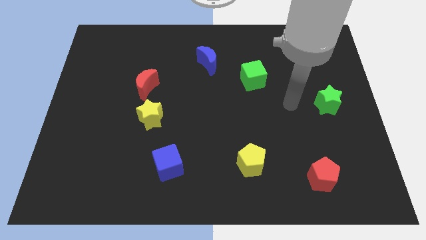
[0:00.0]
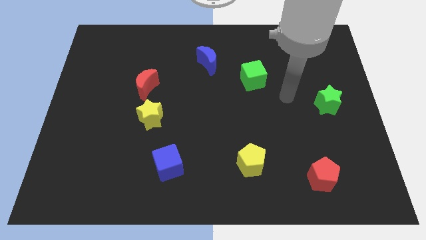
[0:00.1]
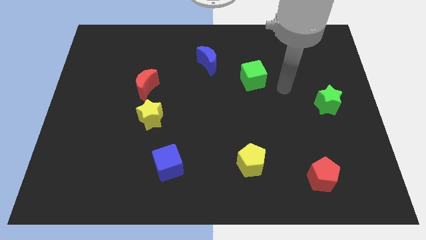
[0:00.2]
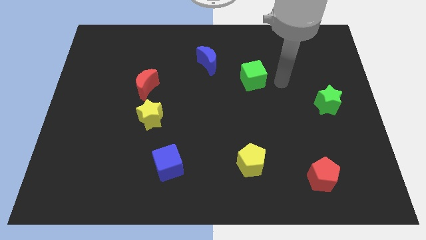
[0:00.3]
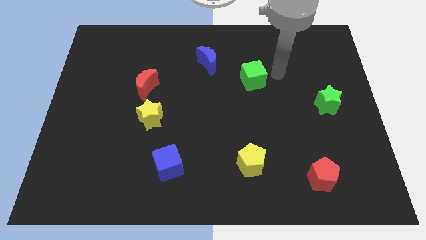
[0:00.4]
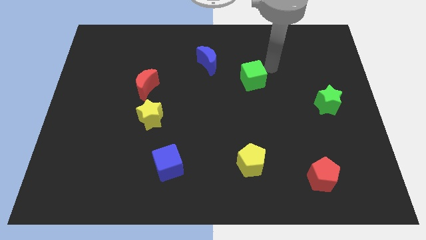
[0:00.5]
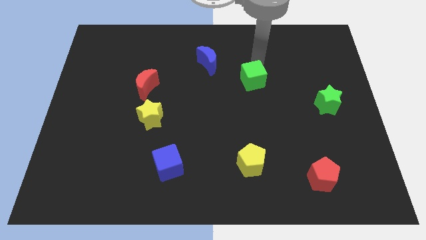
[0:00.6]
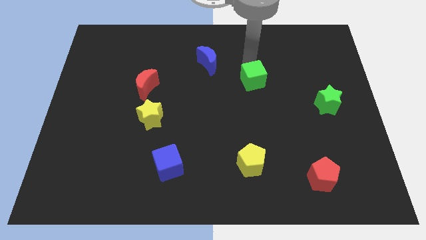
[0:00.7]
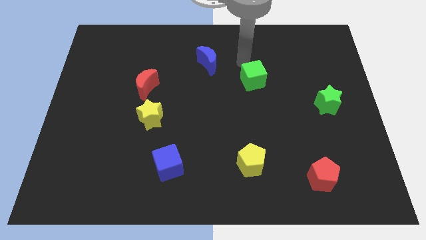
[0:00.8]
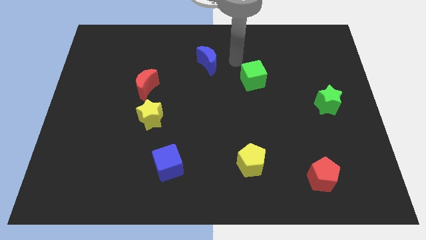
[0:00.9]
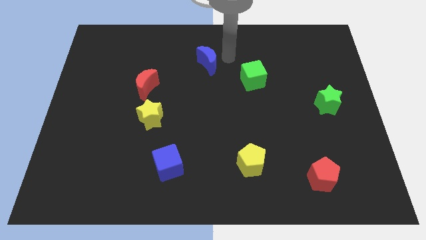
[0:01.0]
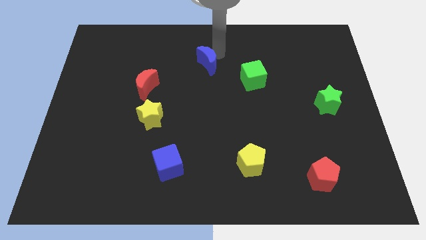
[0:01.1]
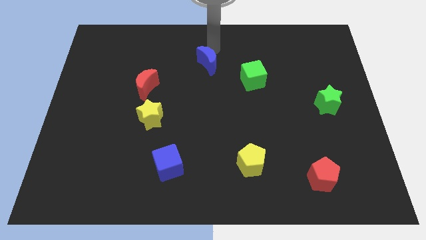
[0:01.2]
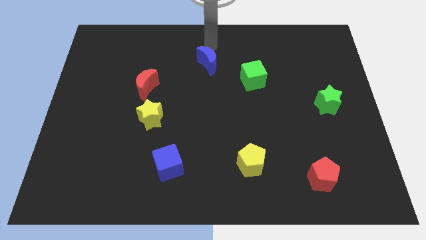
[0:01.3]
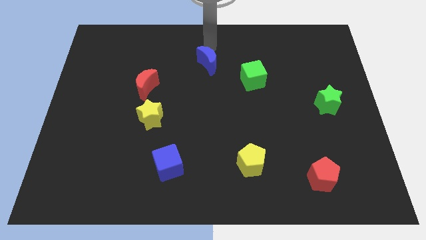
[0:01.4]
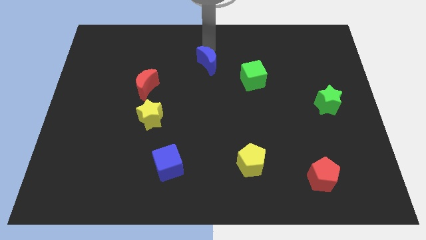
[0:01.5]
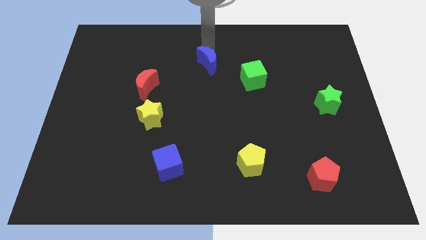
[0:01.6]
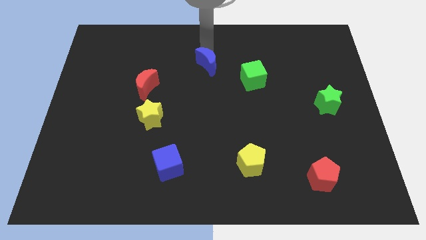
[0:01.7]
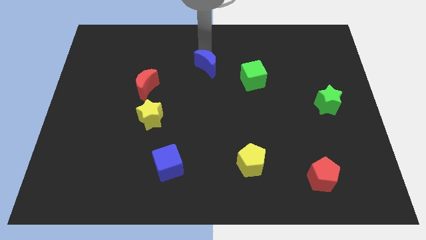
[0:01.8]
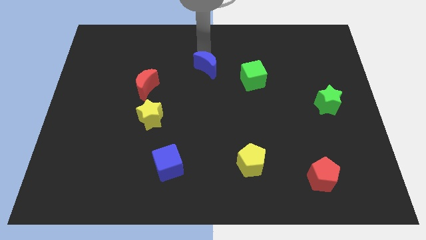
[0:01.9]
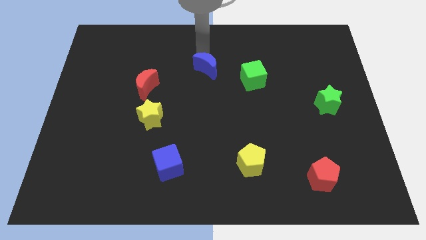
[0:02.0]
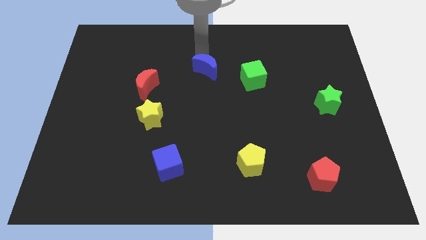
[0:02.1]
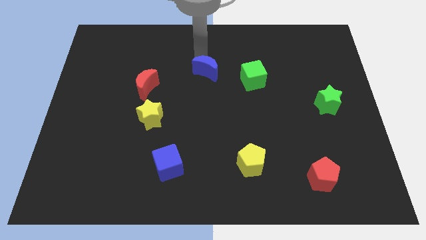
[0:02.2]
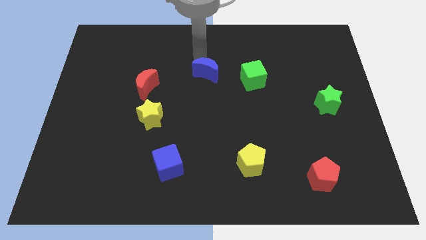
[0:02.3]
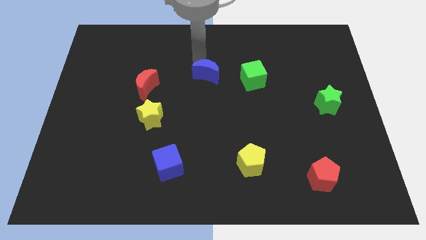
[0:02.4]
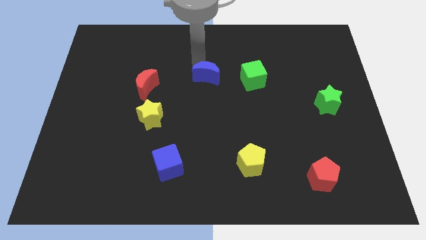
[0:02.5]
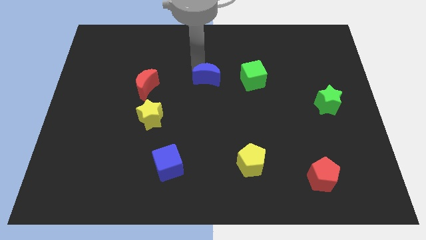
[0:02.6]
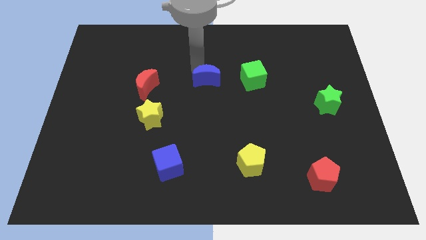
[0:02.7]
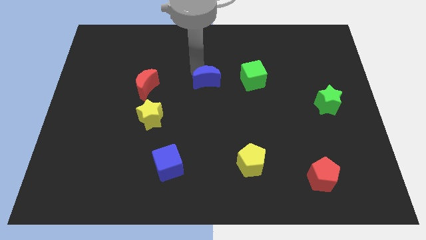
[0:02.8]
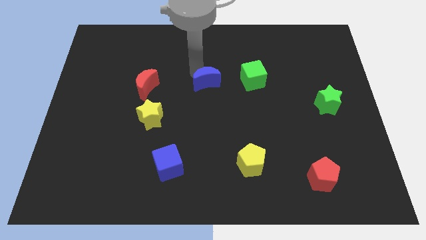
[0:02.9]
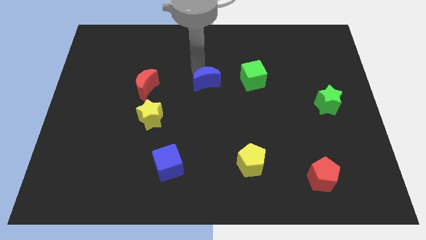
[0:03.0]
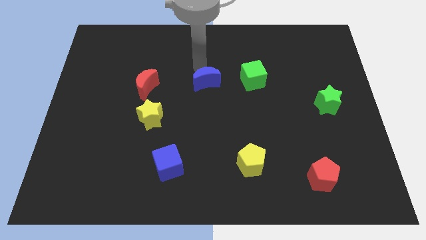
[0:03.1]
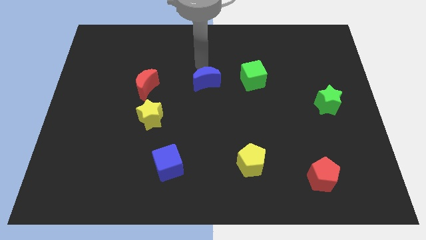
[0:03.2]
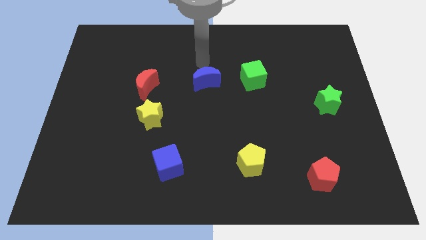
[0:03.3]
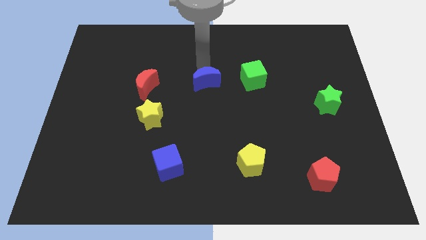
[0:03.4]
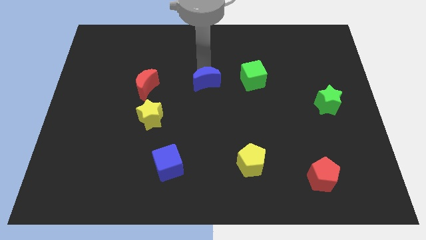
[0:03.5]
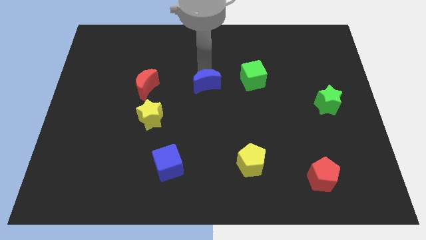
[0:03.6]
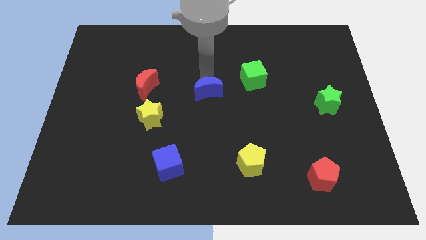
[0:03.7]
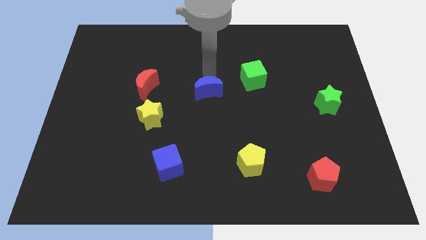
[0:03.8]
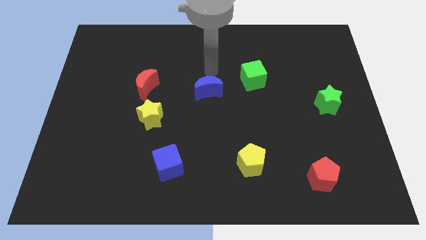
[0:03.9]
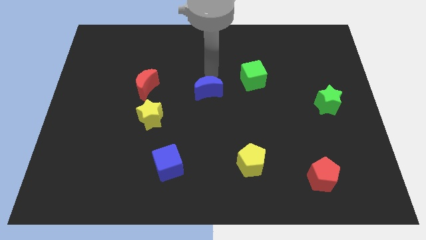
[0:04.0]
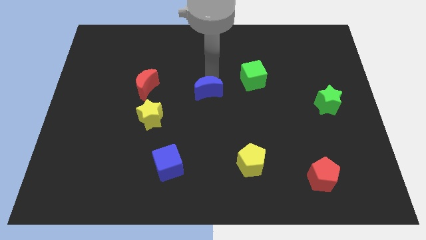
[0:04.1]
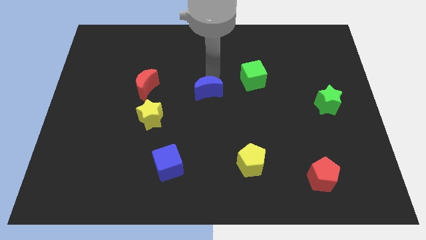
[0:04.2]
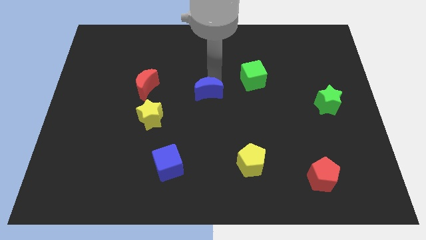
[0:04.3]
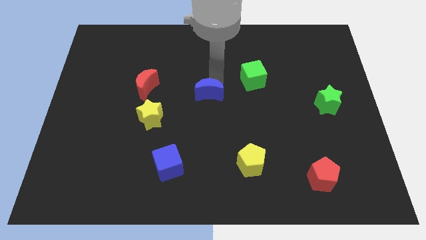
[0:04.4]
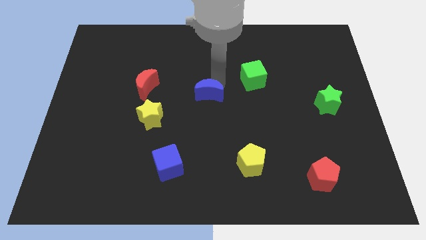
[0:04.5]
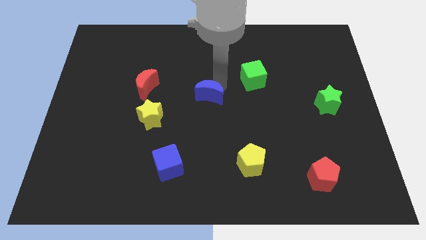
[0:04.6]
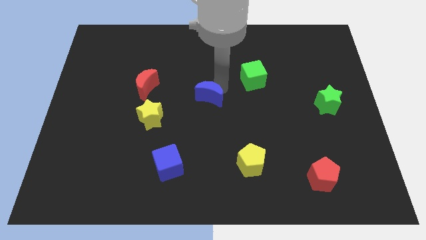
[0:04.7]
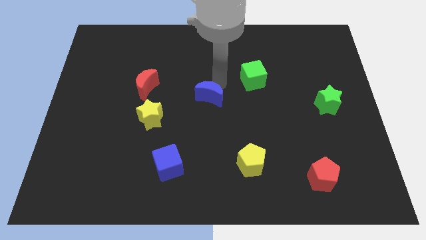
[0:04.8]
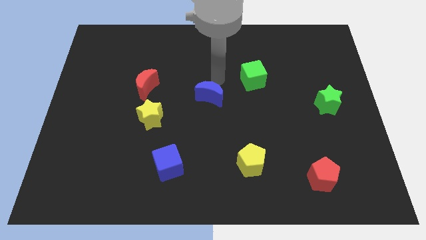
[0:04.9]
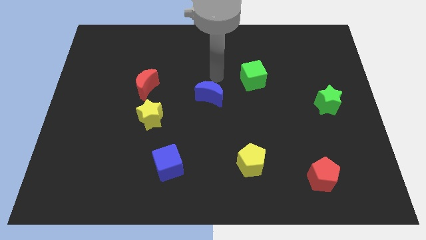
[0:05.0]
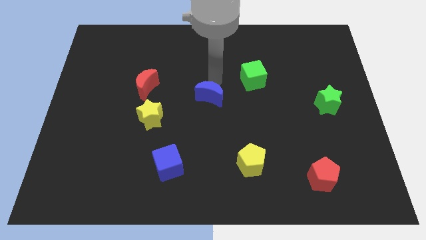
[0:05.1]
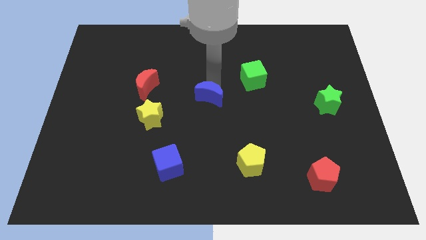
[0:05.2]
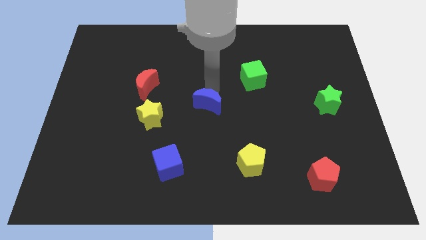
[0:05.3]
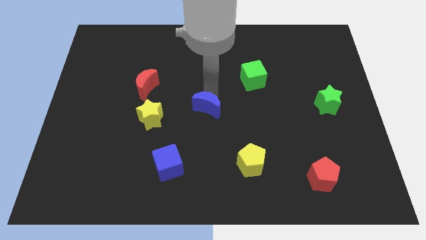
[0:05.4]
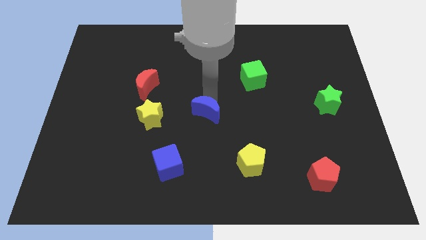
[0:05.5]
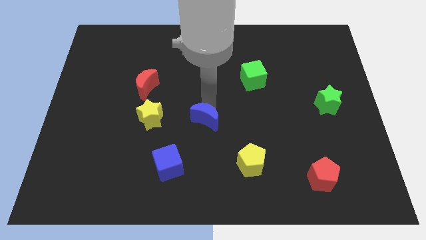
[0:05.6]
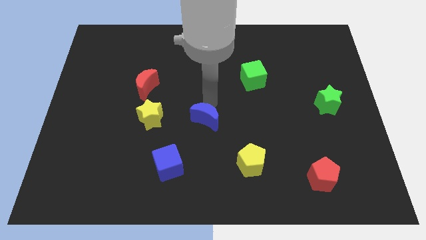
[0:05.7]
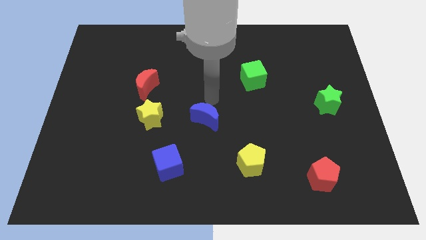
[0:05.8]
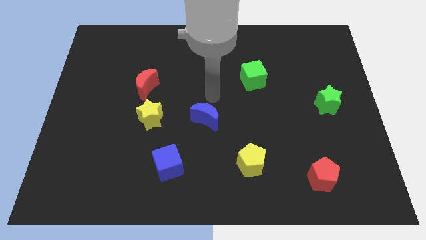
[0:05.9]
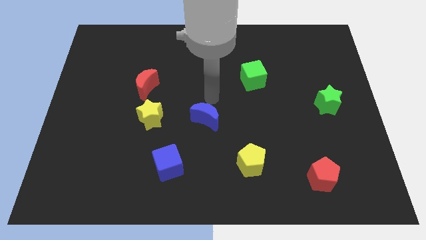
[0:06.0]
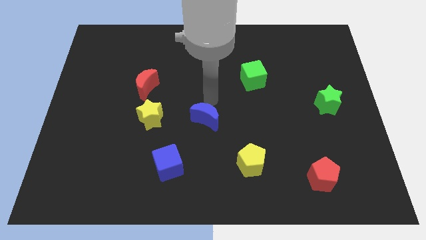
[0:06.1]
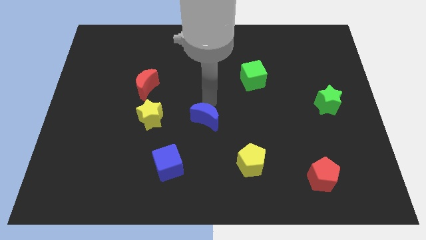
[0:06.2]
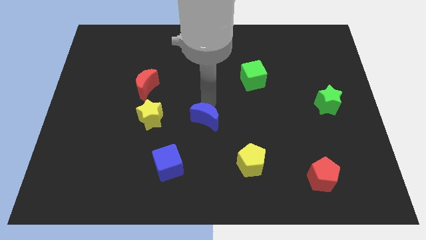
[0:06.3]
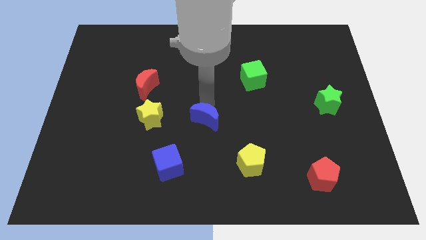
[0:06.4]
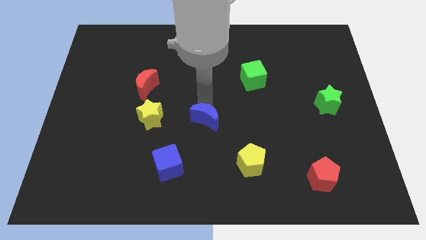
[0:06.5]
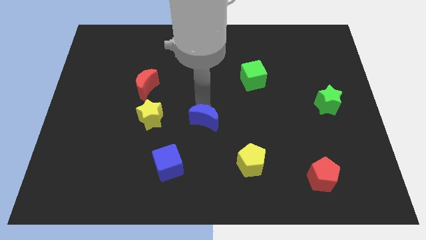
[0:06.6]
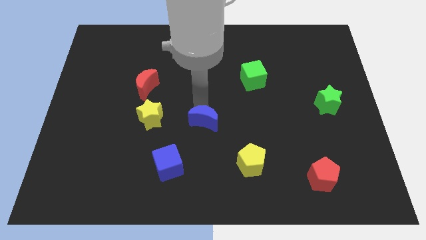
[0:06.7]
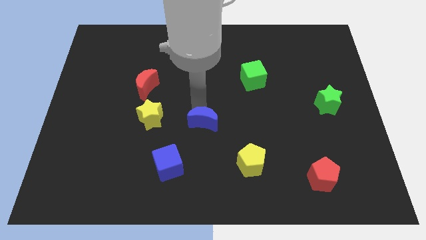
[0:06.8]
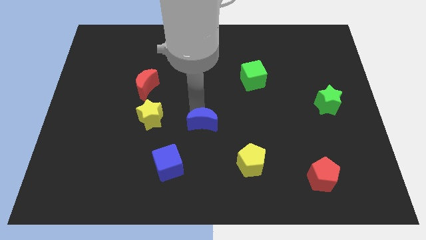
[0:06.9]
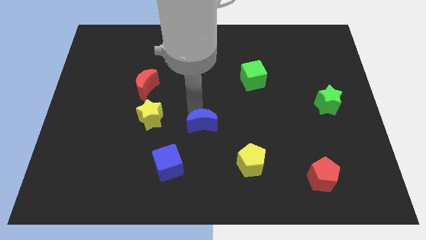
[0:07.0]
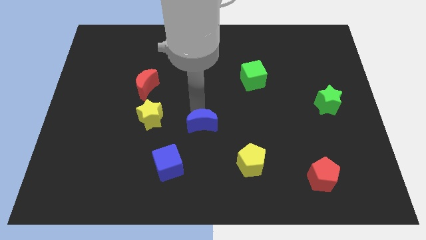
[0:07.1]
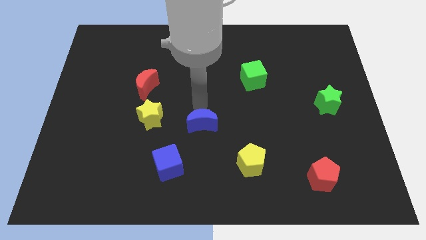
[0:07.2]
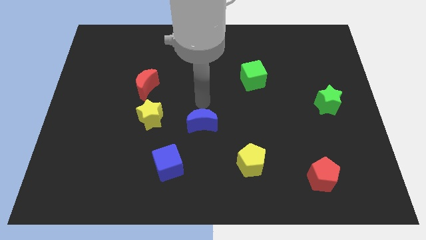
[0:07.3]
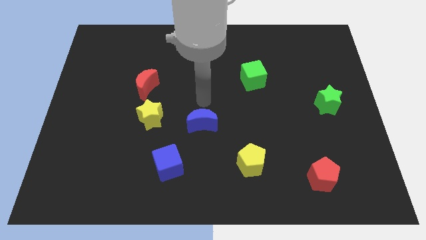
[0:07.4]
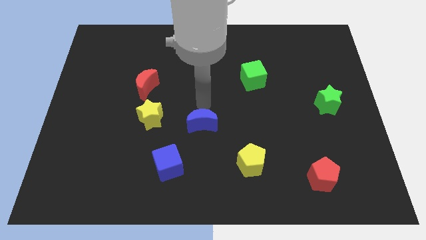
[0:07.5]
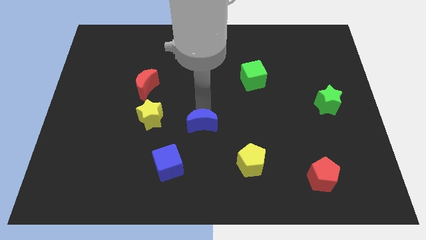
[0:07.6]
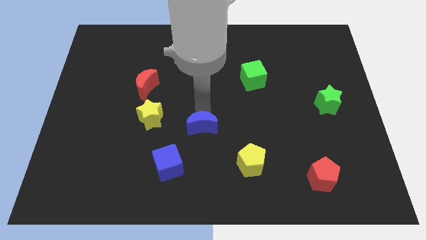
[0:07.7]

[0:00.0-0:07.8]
slide the blue moon downwards

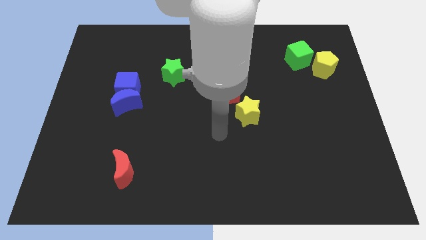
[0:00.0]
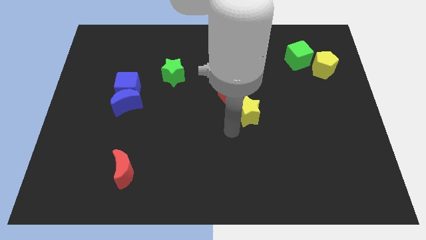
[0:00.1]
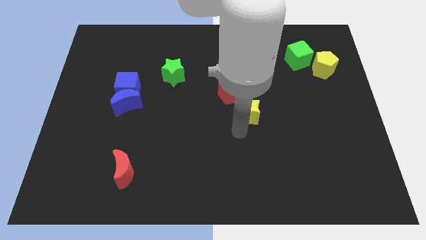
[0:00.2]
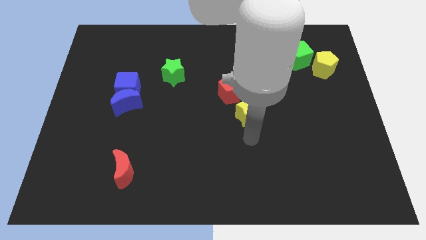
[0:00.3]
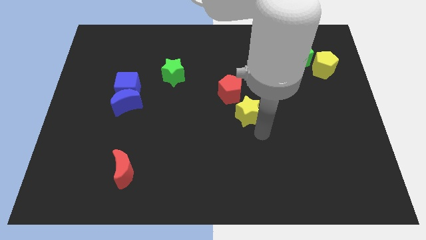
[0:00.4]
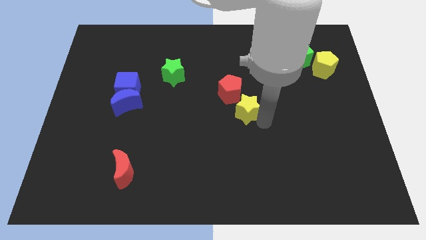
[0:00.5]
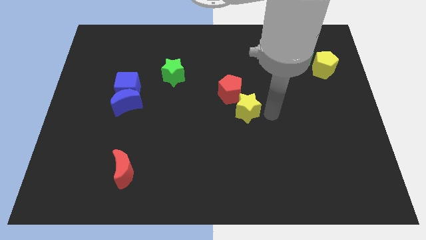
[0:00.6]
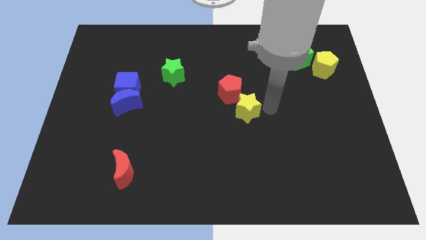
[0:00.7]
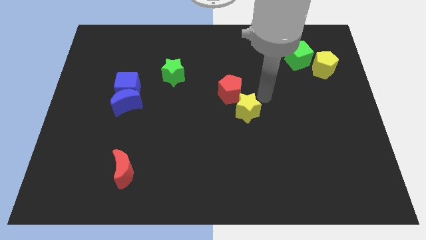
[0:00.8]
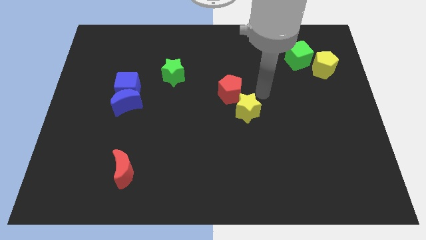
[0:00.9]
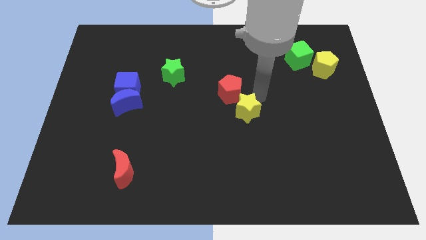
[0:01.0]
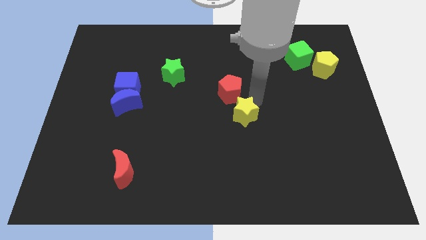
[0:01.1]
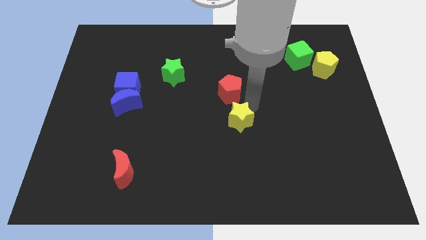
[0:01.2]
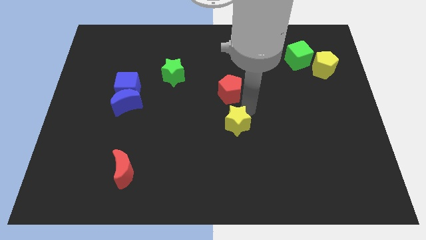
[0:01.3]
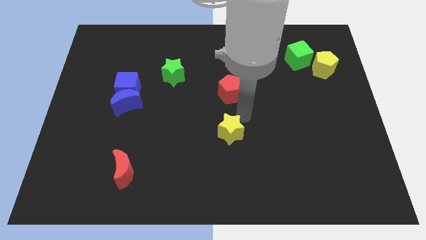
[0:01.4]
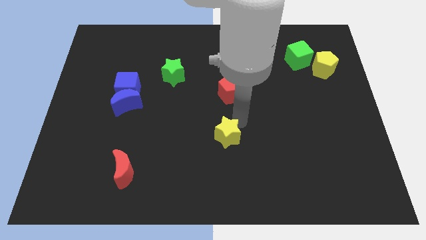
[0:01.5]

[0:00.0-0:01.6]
slide the yellow star downwards and to the left slightly
